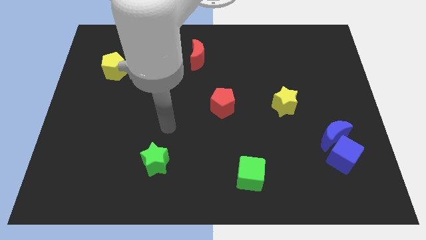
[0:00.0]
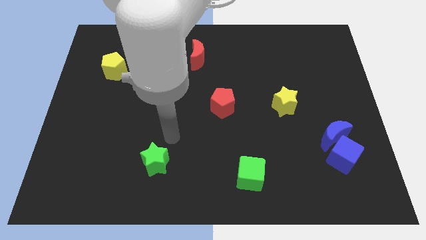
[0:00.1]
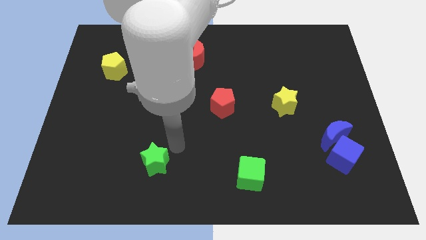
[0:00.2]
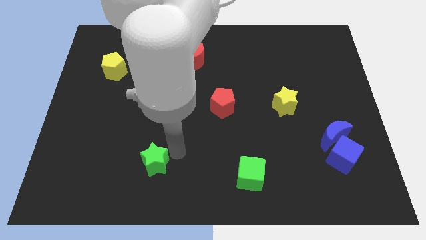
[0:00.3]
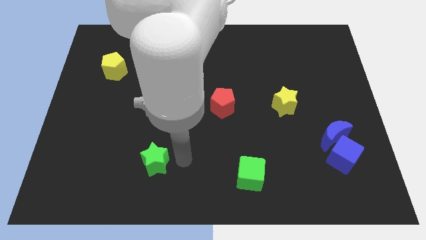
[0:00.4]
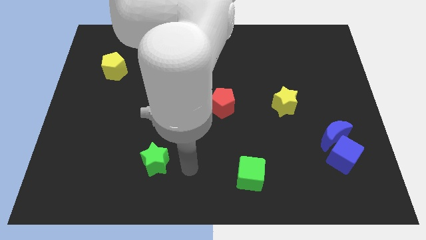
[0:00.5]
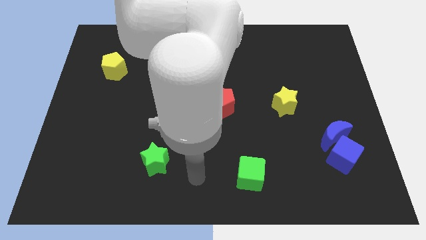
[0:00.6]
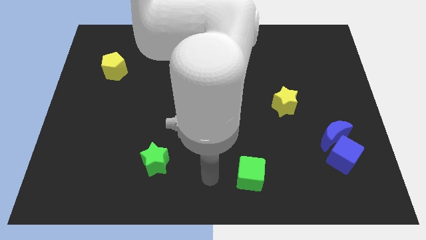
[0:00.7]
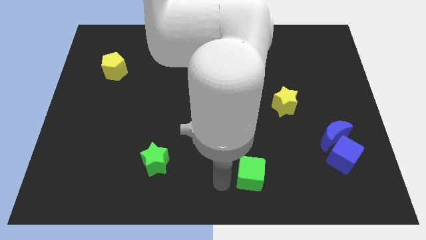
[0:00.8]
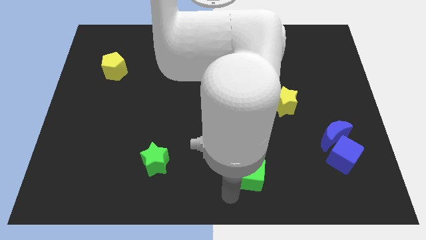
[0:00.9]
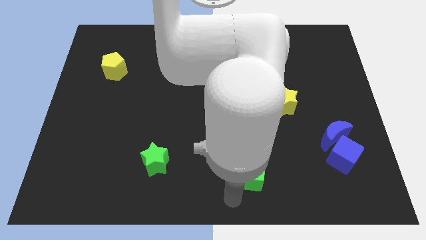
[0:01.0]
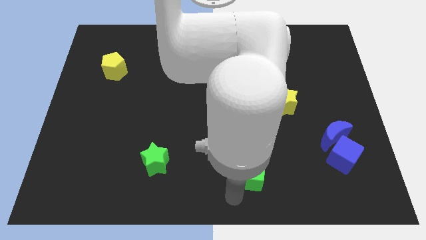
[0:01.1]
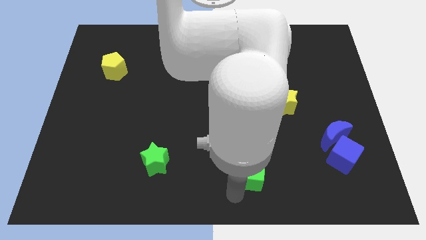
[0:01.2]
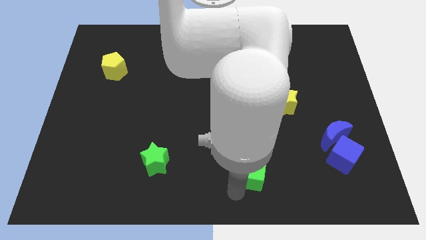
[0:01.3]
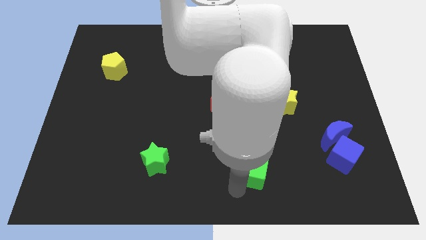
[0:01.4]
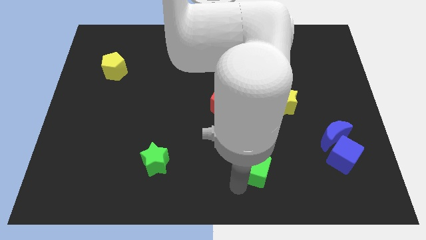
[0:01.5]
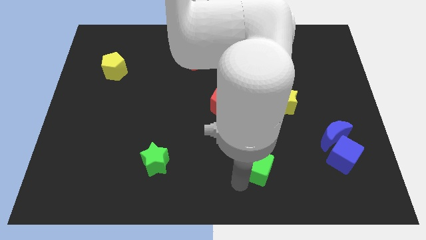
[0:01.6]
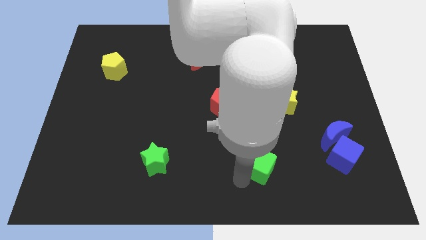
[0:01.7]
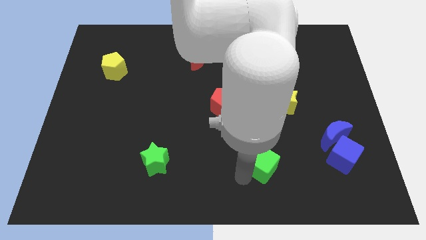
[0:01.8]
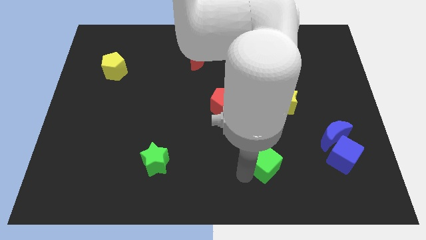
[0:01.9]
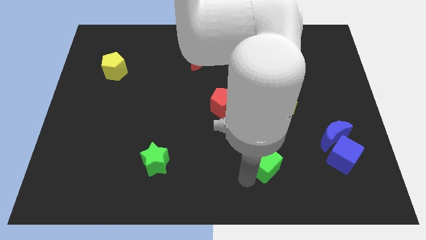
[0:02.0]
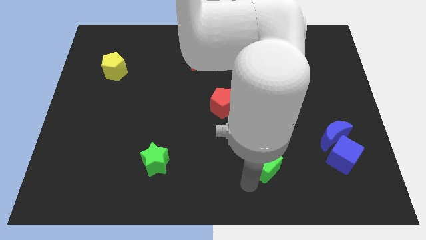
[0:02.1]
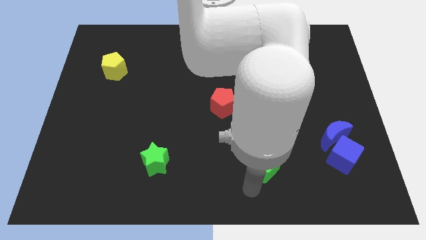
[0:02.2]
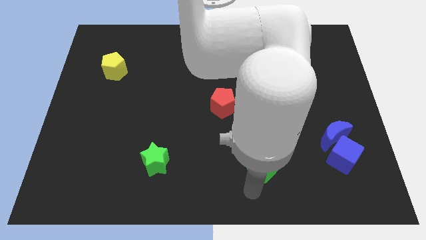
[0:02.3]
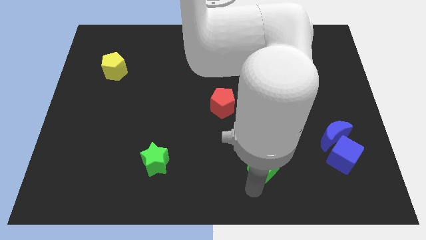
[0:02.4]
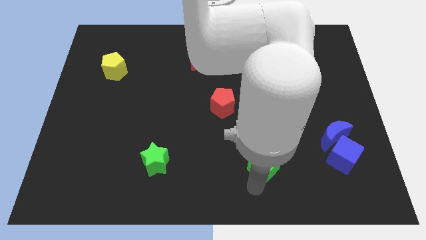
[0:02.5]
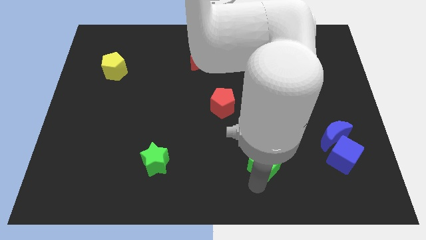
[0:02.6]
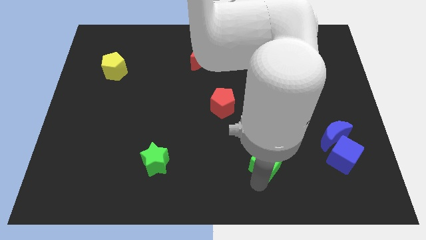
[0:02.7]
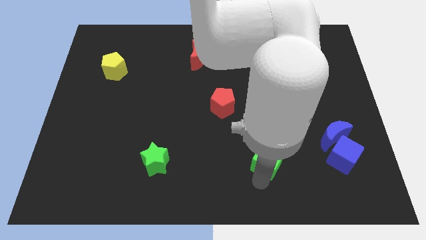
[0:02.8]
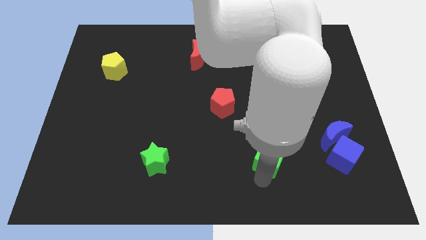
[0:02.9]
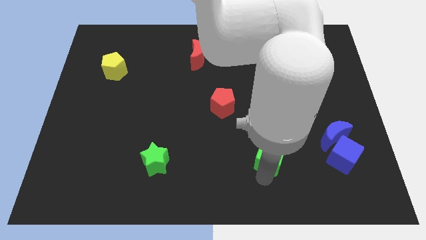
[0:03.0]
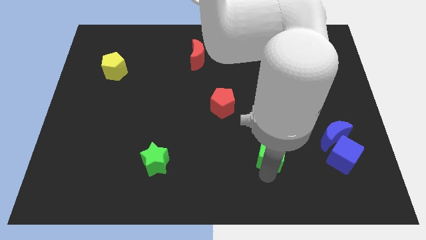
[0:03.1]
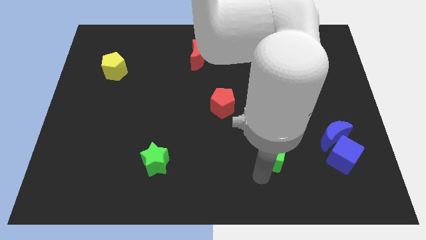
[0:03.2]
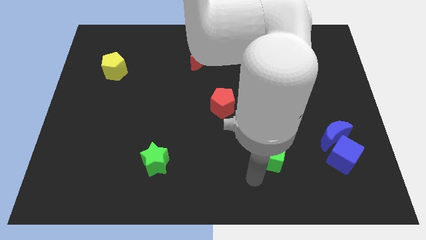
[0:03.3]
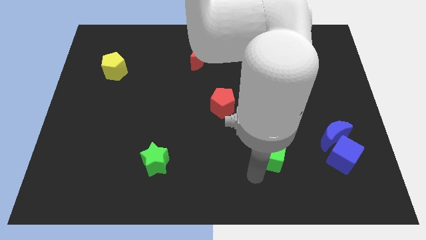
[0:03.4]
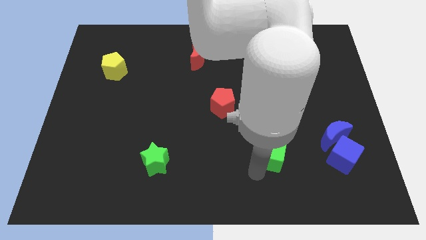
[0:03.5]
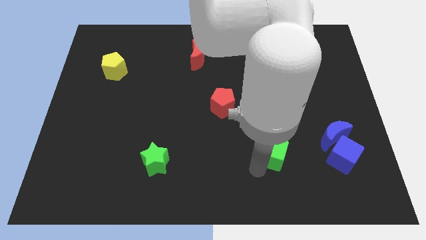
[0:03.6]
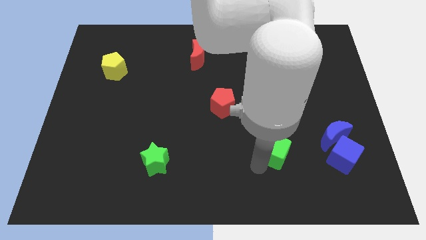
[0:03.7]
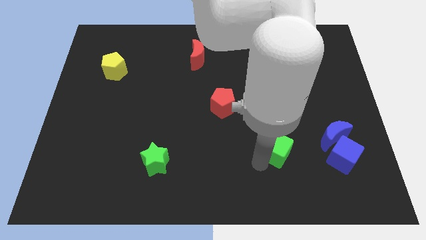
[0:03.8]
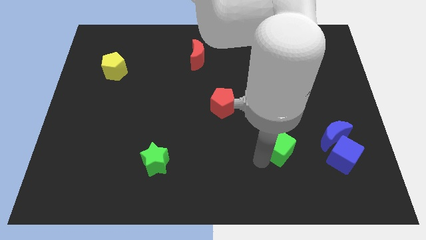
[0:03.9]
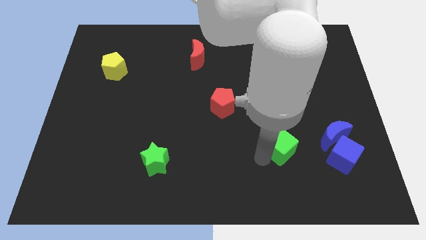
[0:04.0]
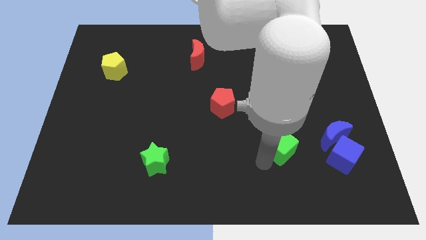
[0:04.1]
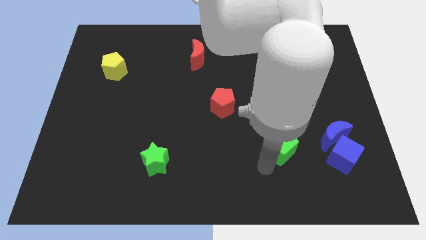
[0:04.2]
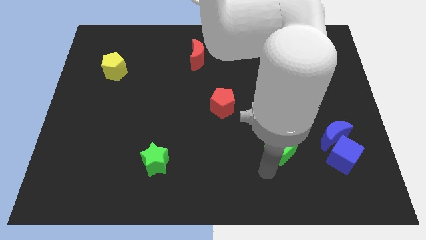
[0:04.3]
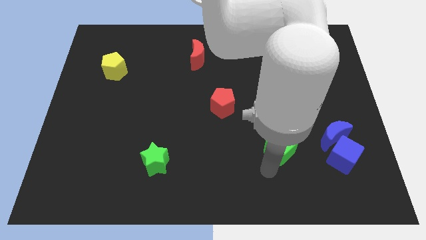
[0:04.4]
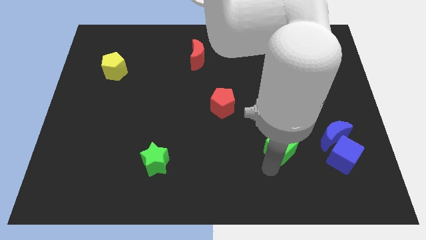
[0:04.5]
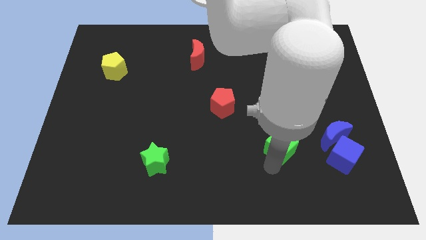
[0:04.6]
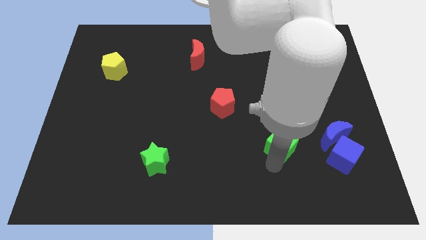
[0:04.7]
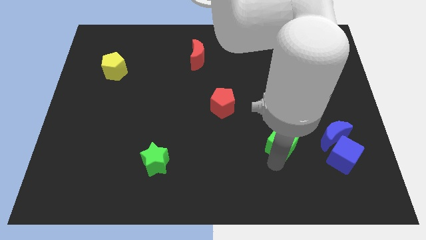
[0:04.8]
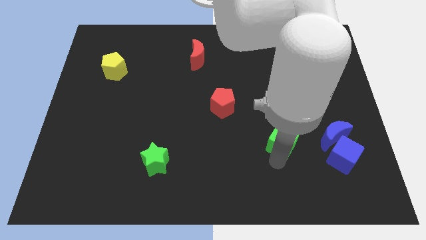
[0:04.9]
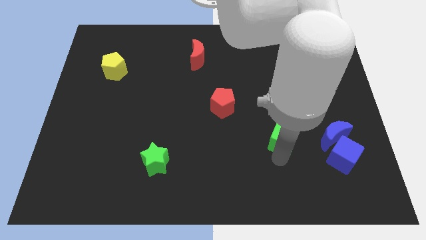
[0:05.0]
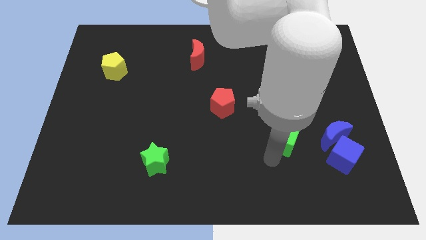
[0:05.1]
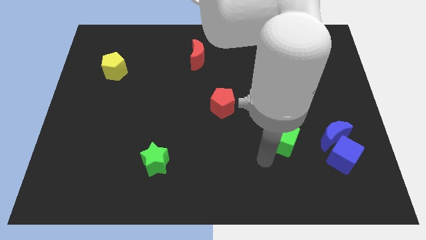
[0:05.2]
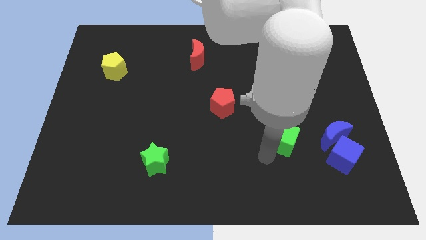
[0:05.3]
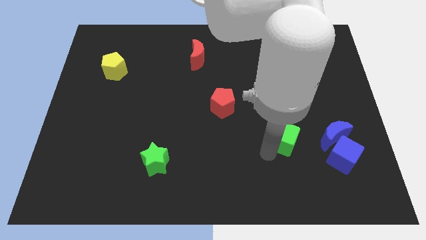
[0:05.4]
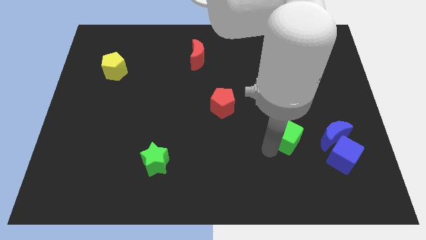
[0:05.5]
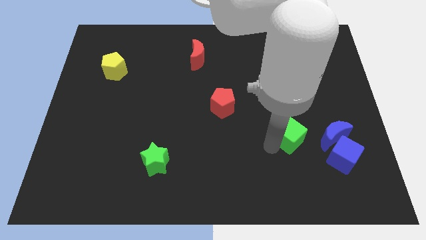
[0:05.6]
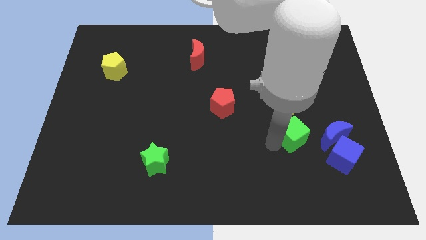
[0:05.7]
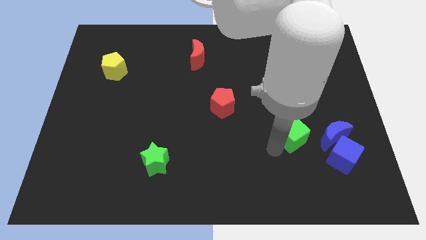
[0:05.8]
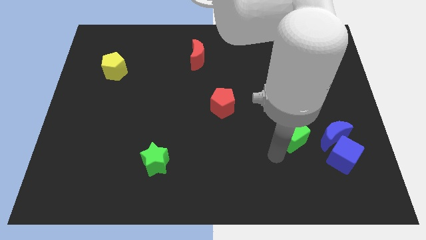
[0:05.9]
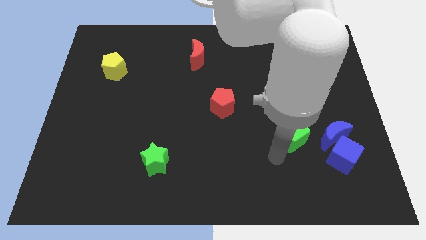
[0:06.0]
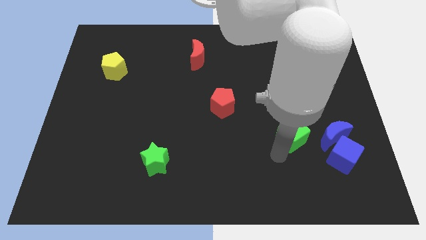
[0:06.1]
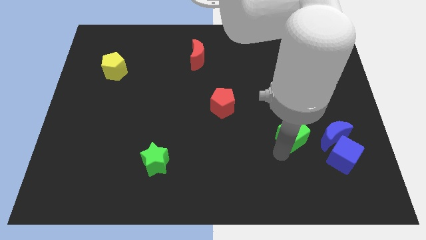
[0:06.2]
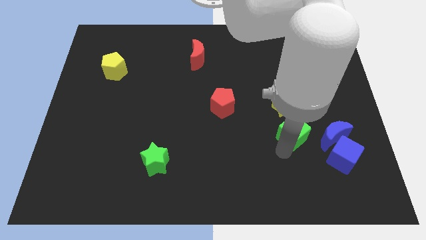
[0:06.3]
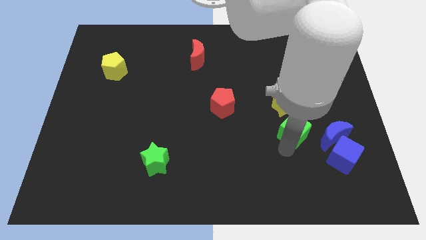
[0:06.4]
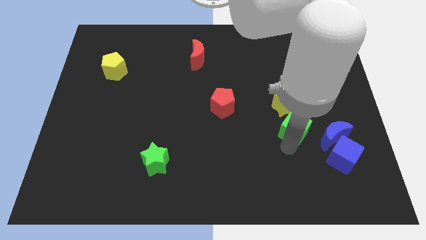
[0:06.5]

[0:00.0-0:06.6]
move the green cube to the top left side of the blue moon

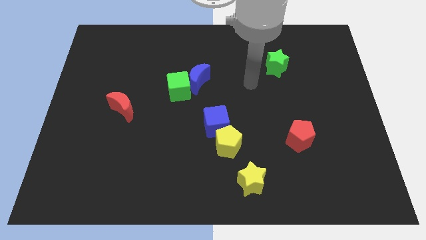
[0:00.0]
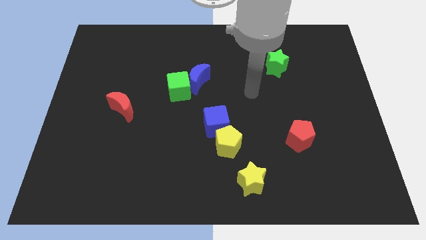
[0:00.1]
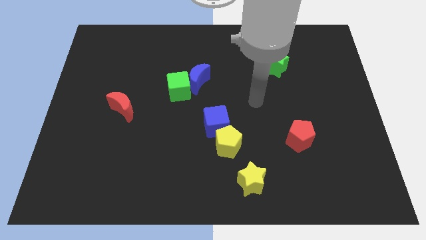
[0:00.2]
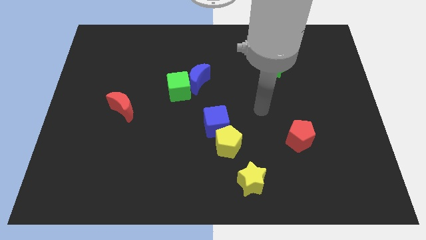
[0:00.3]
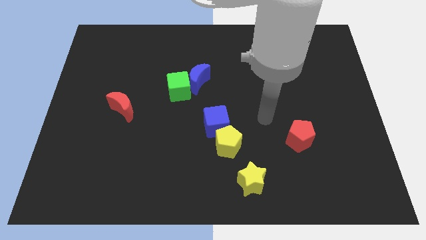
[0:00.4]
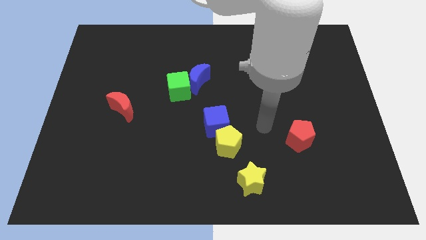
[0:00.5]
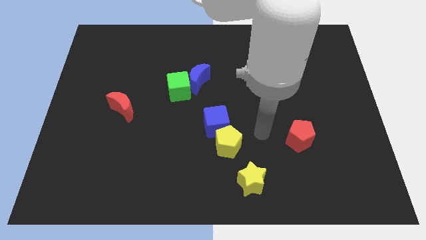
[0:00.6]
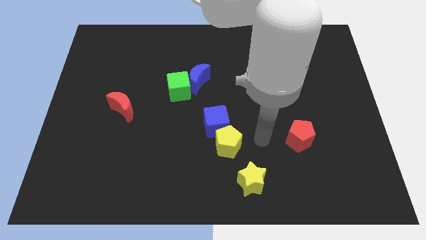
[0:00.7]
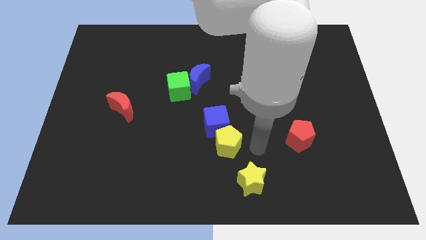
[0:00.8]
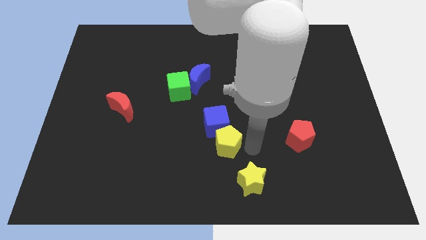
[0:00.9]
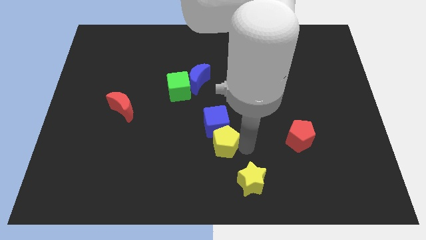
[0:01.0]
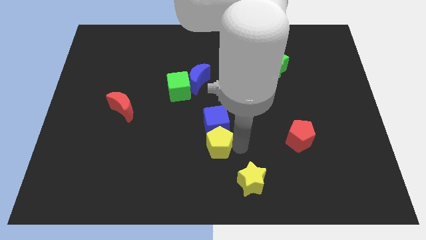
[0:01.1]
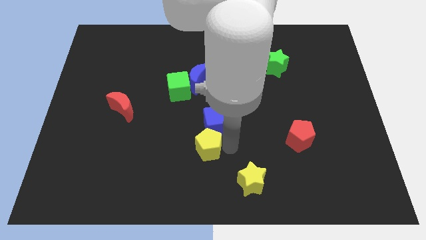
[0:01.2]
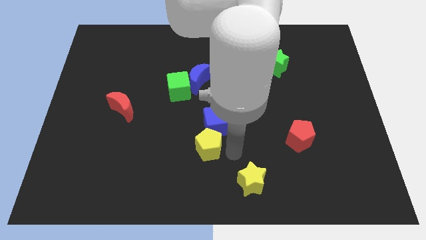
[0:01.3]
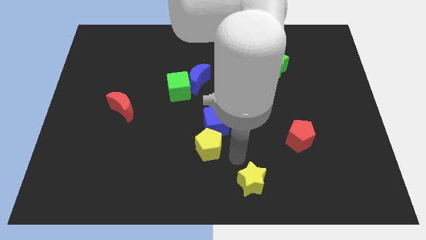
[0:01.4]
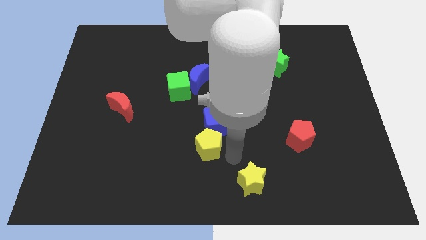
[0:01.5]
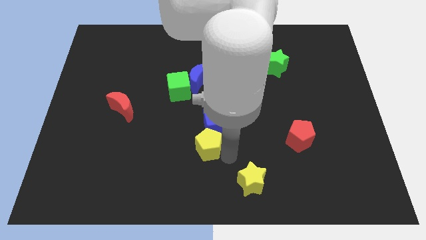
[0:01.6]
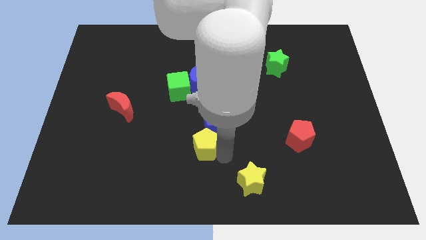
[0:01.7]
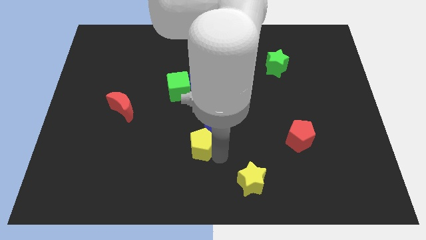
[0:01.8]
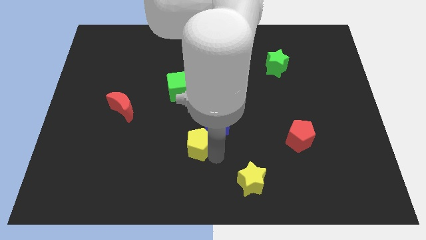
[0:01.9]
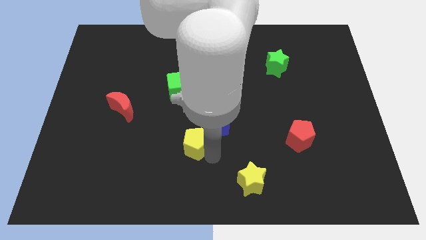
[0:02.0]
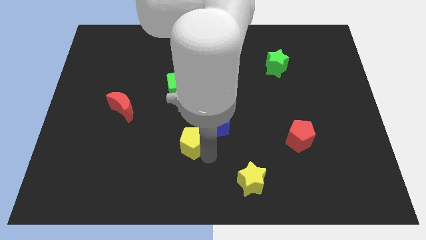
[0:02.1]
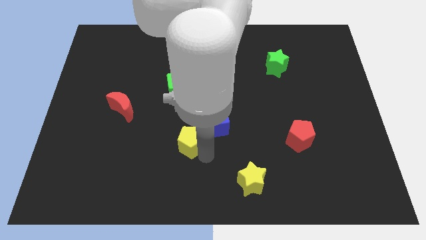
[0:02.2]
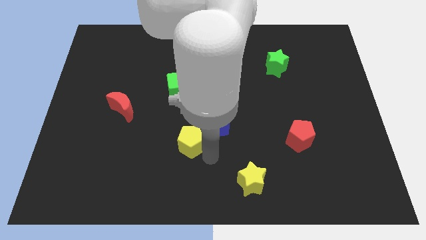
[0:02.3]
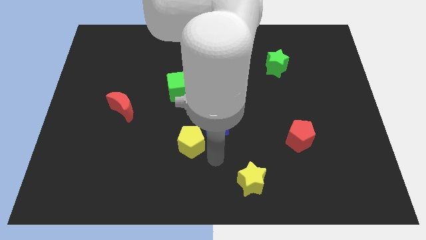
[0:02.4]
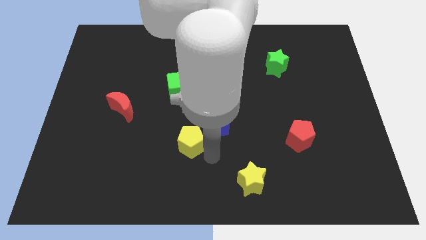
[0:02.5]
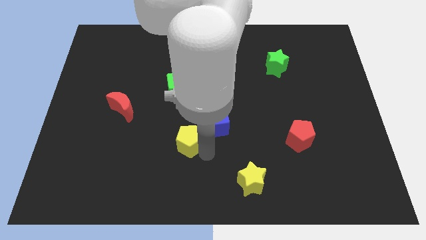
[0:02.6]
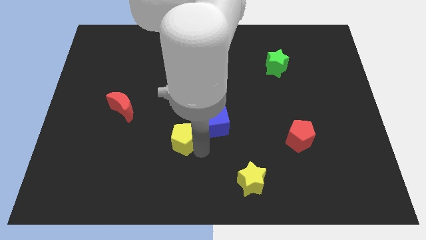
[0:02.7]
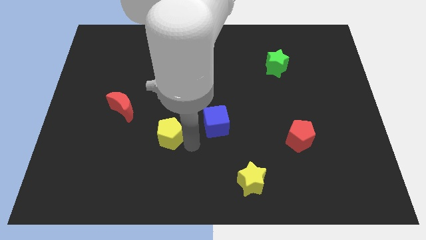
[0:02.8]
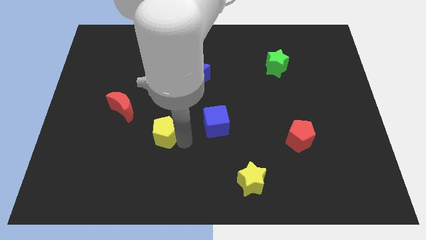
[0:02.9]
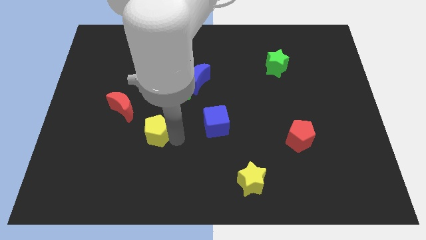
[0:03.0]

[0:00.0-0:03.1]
push the yellow pentagon diagonally down and to the right of the red moon
